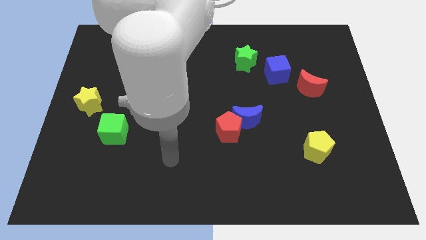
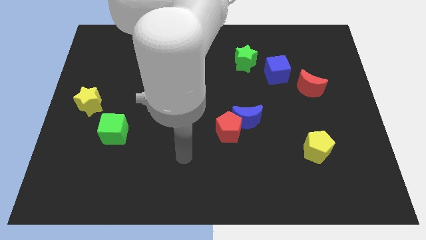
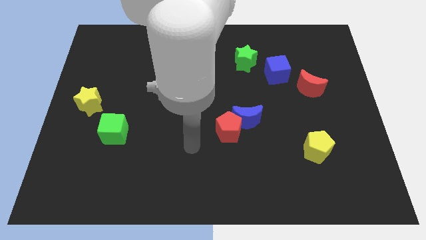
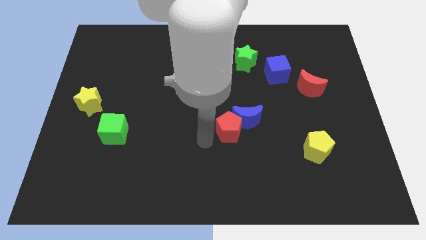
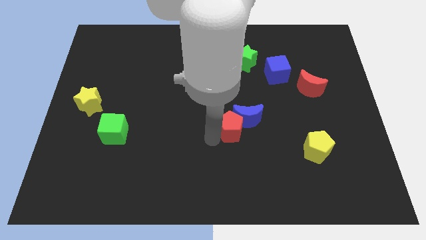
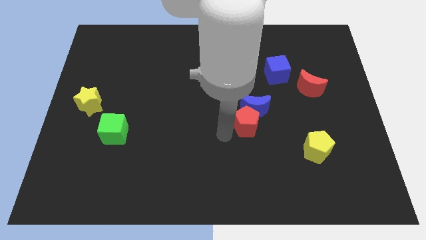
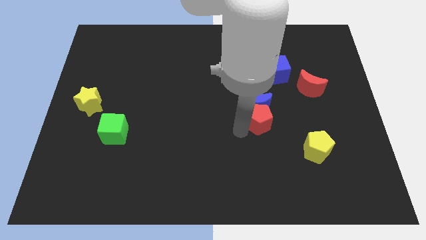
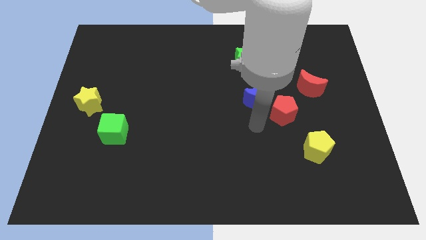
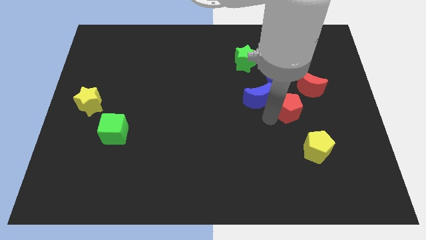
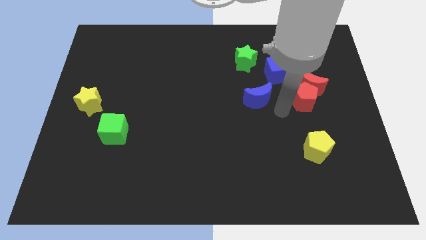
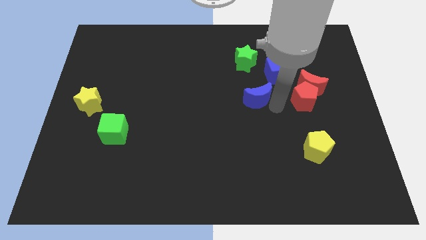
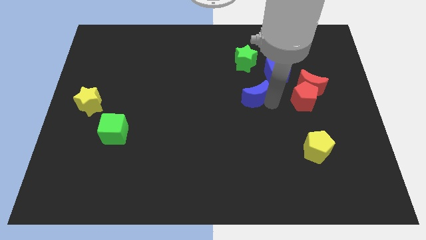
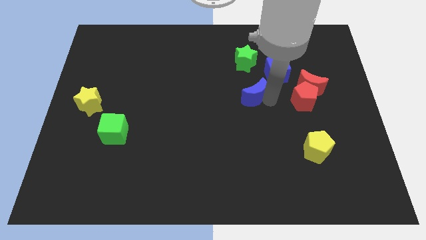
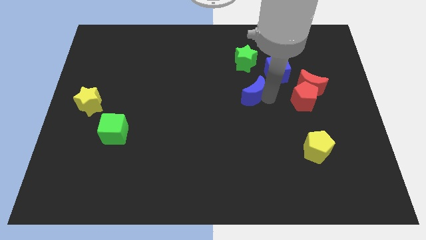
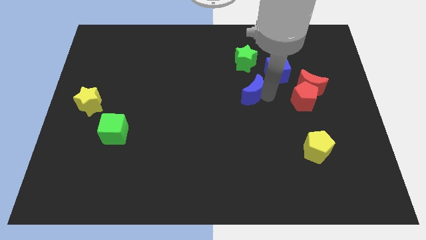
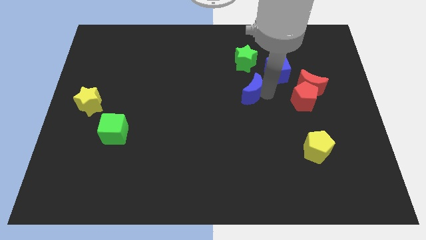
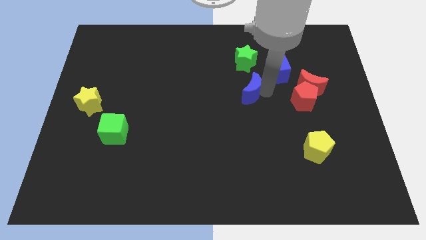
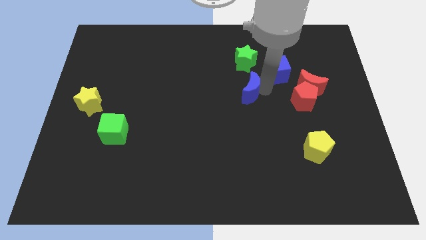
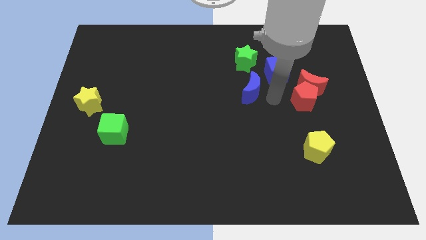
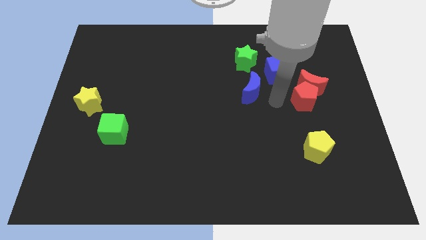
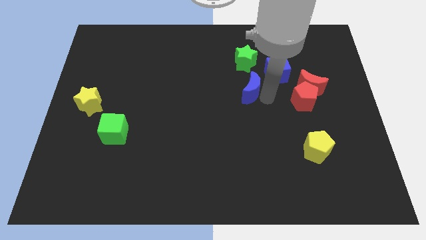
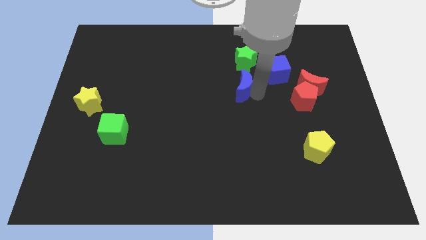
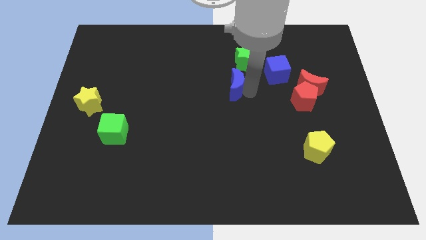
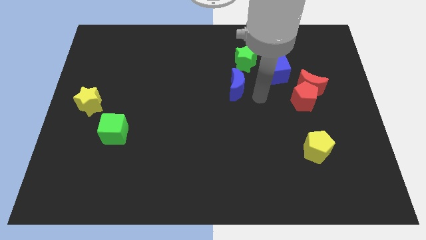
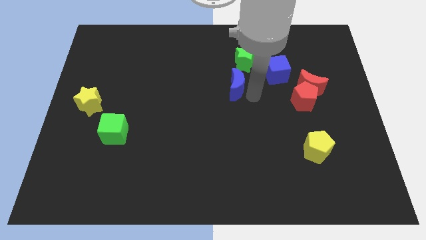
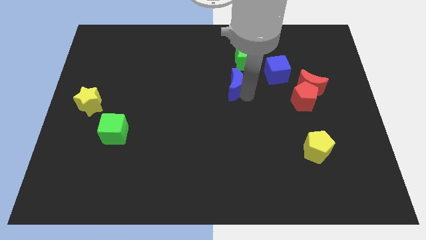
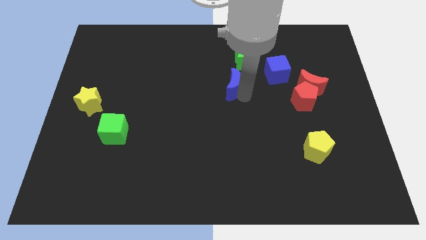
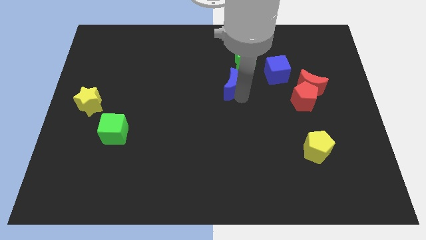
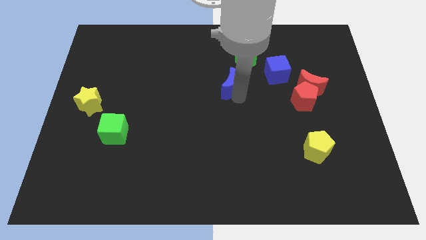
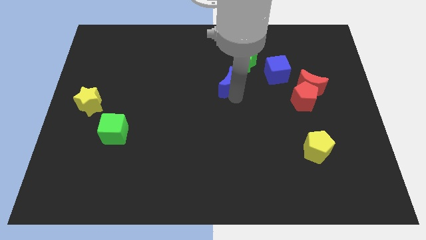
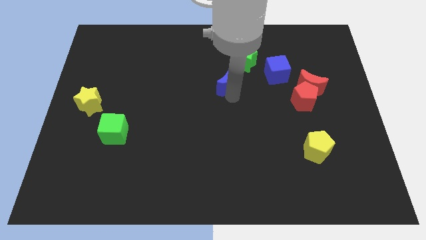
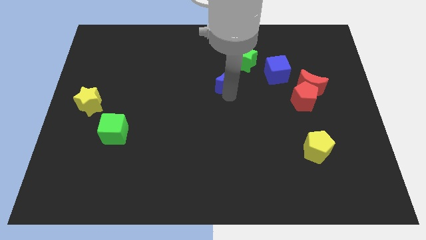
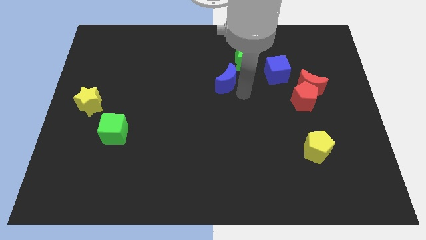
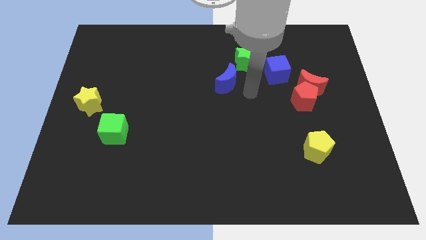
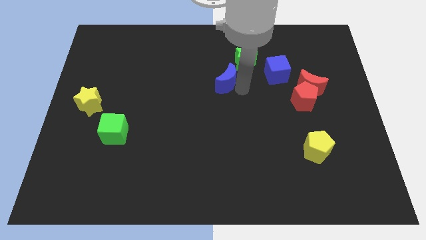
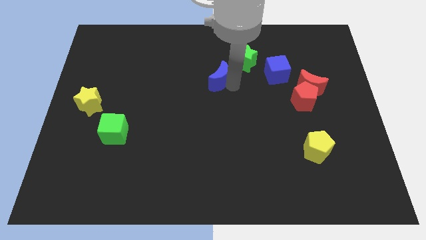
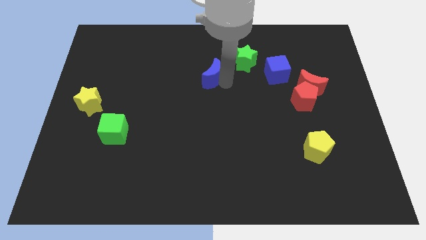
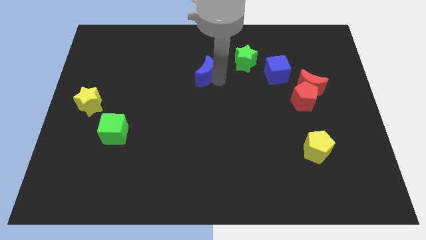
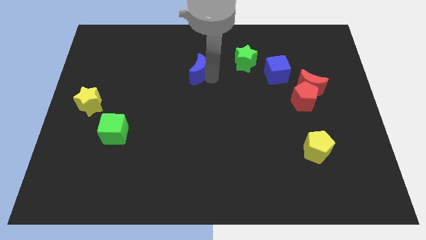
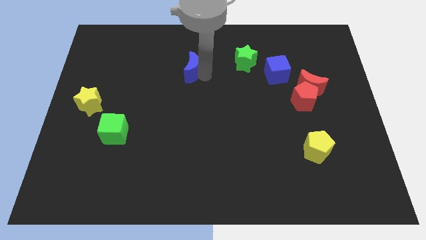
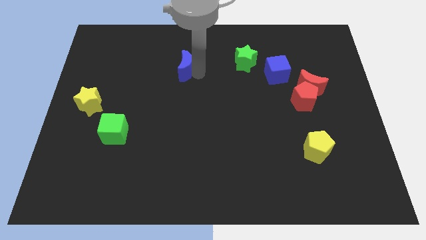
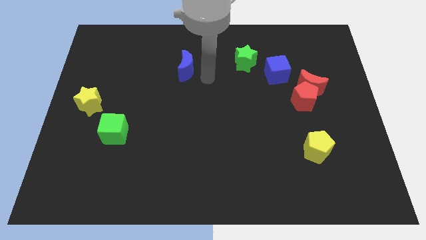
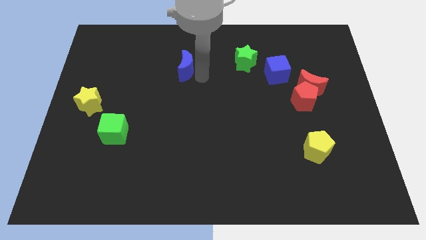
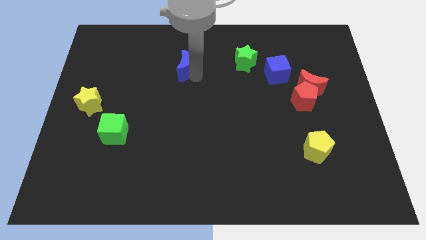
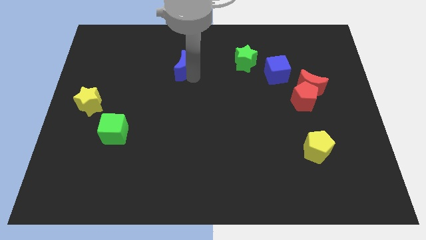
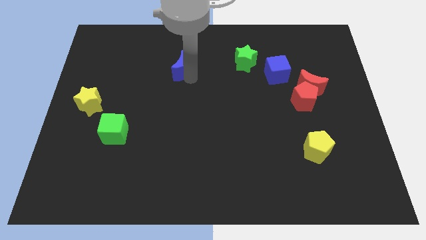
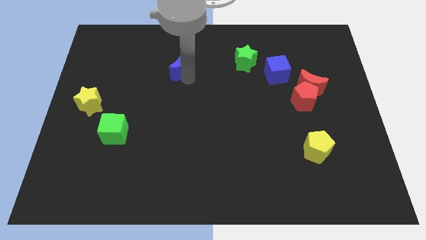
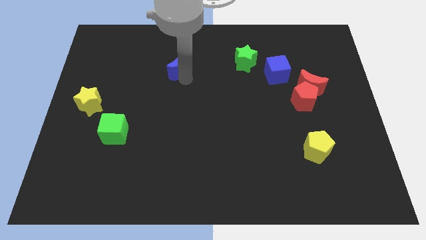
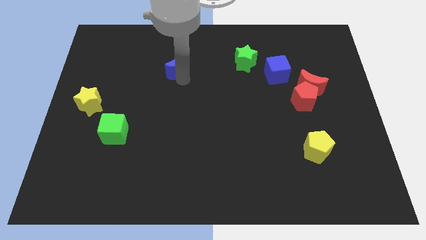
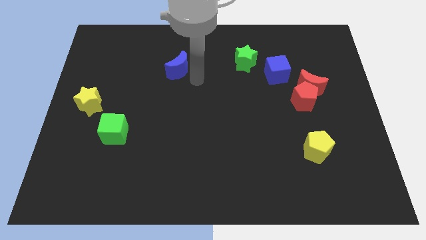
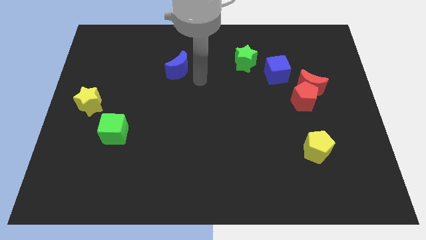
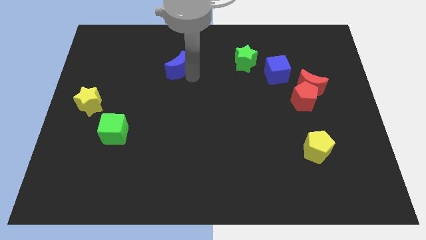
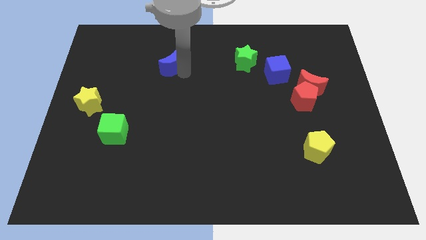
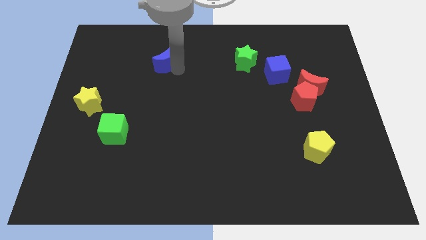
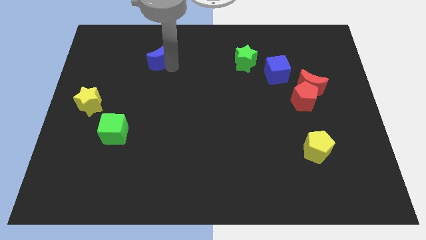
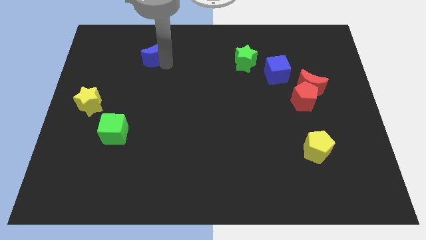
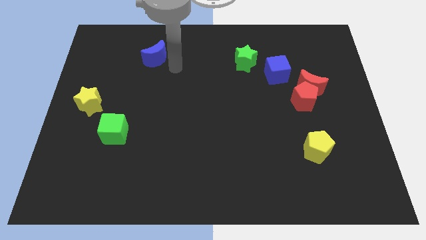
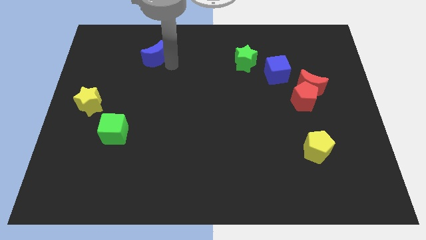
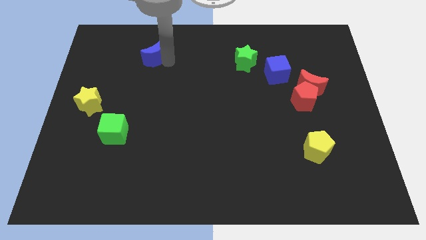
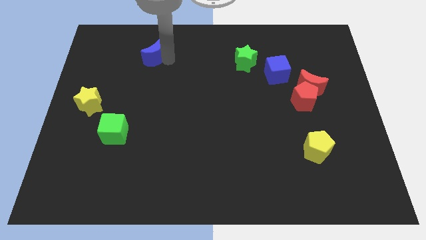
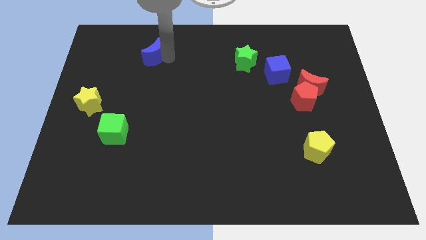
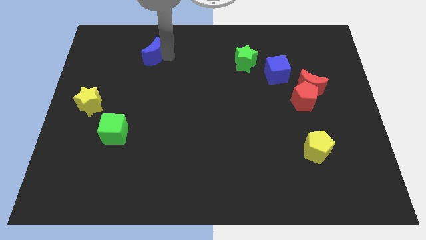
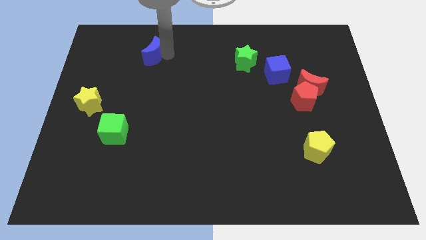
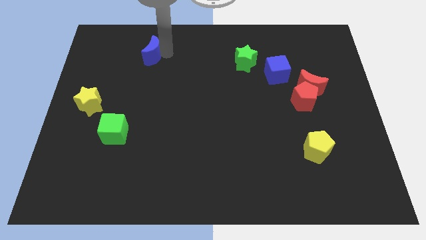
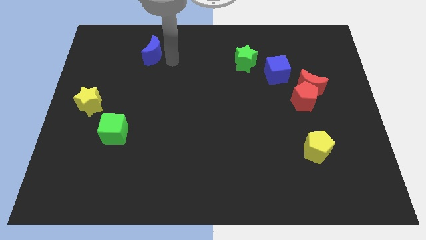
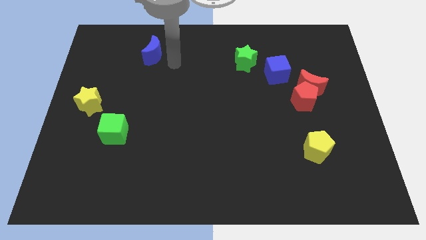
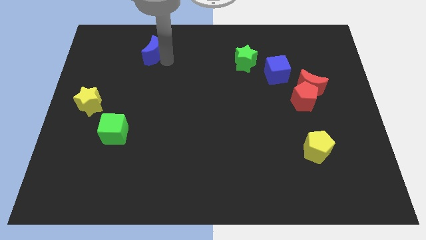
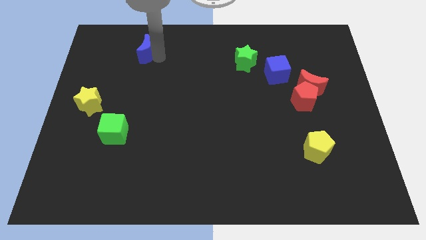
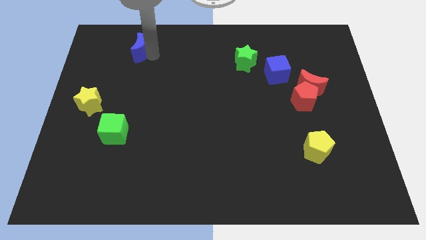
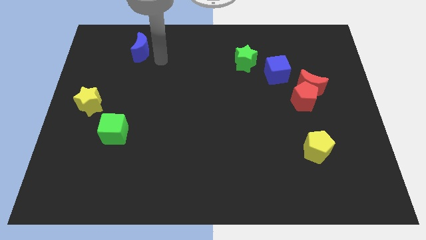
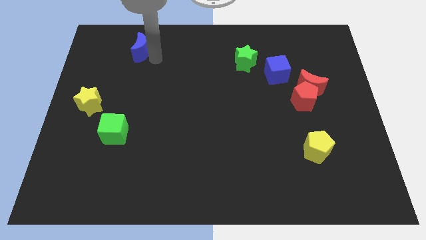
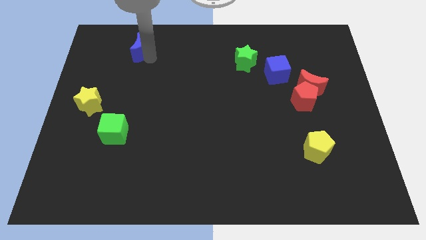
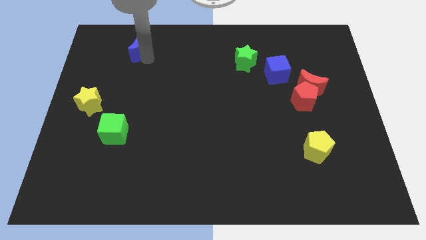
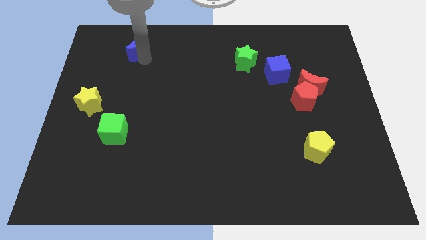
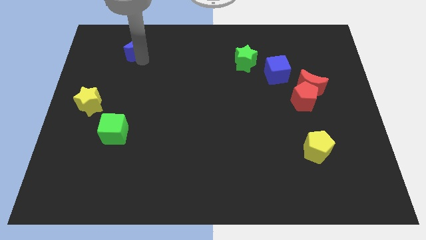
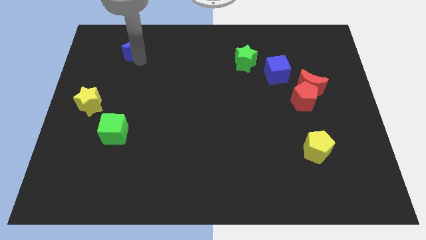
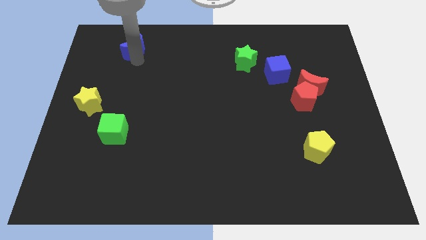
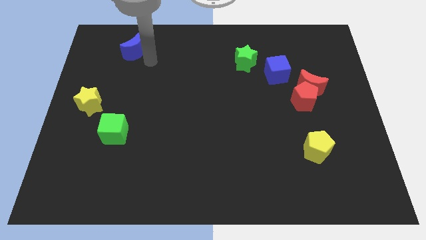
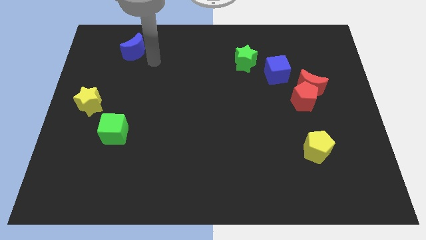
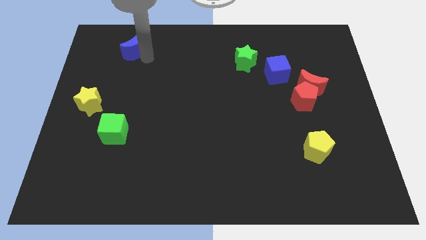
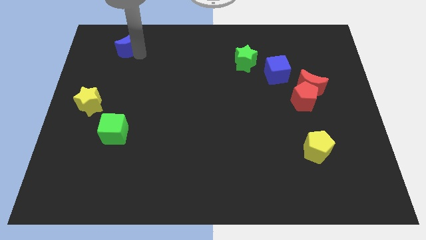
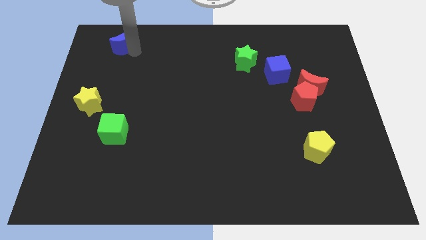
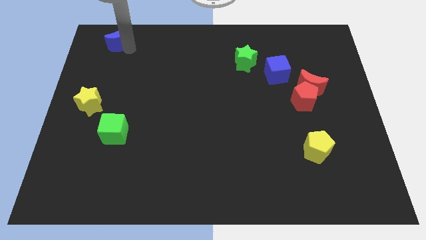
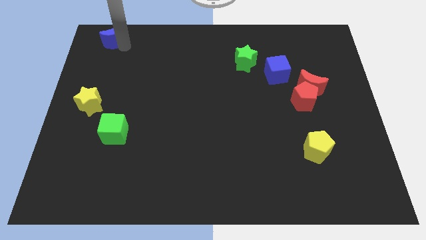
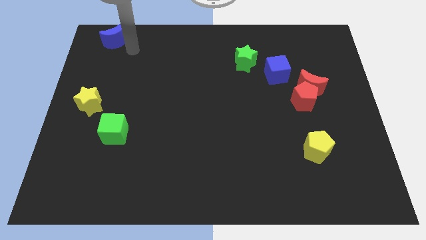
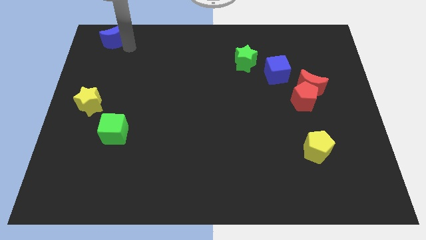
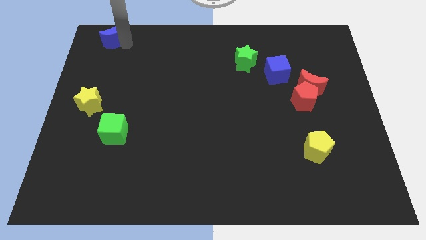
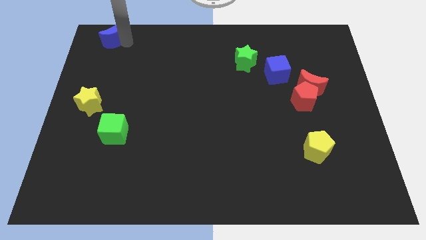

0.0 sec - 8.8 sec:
slide the blue moon to the top left
